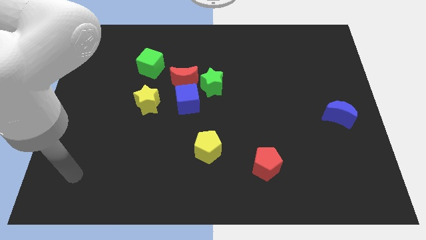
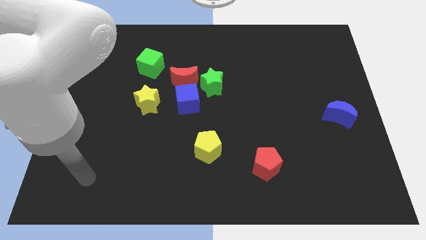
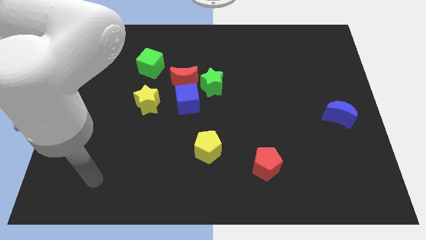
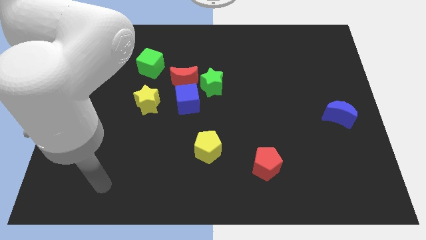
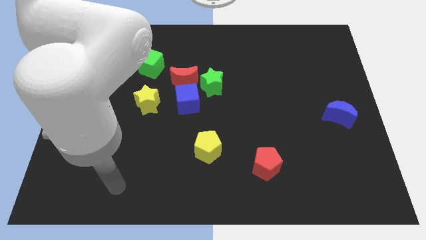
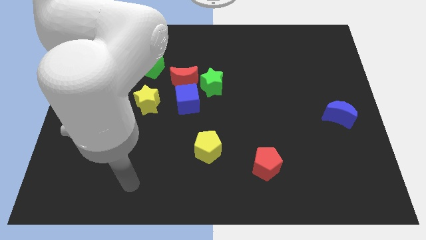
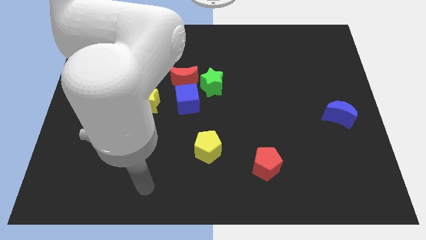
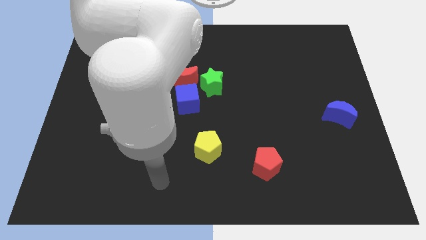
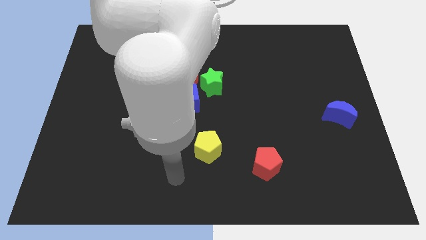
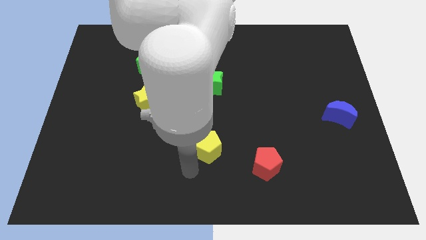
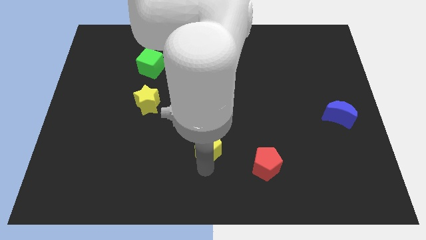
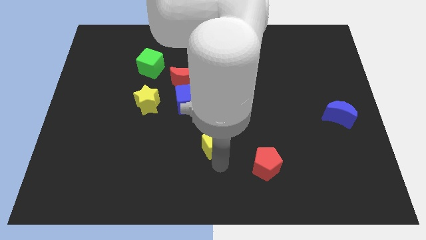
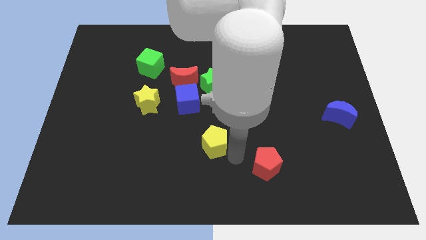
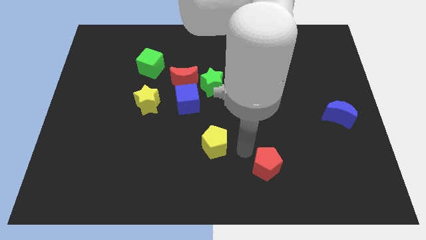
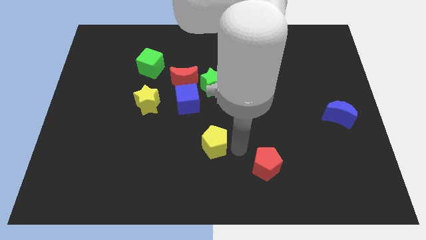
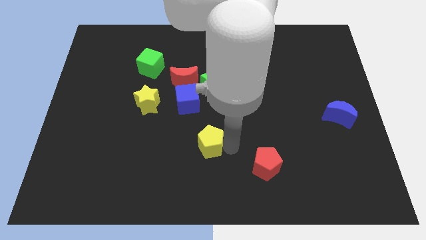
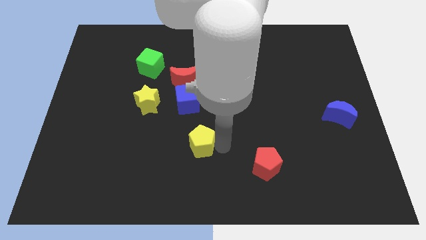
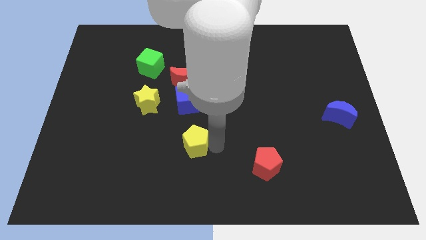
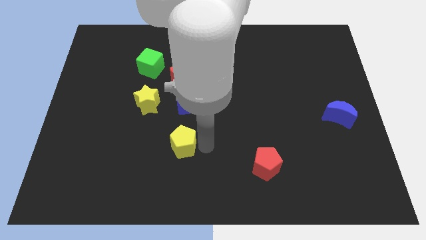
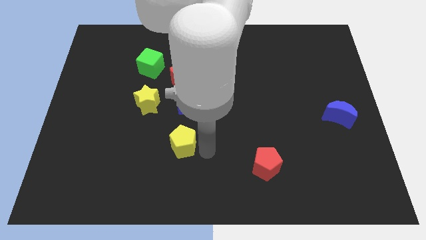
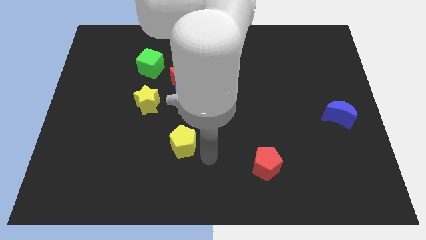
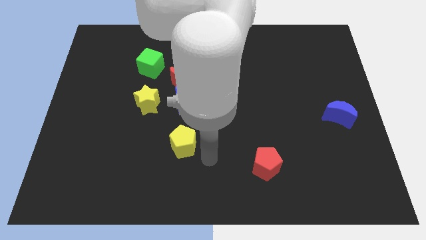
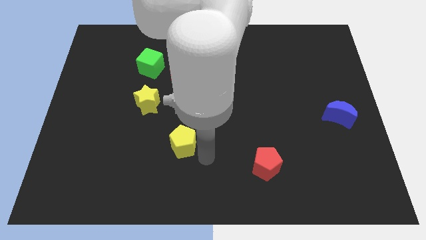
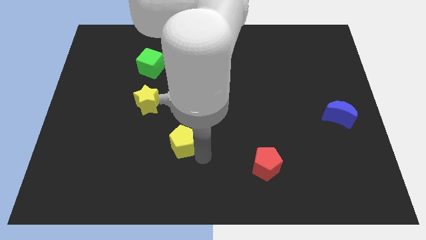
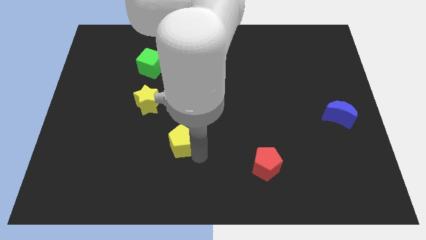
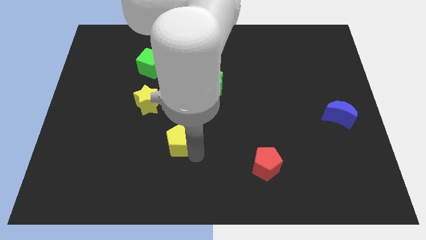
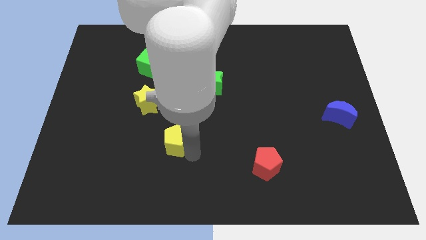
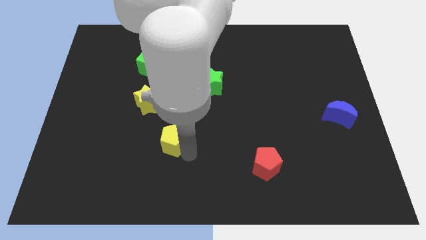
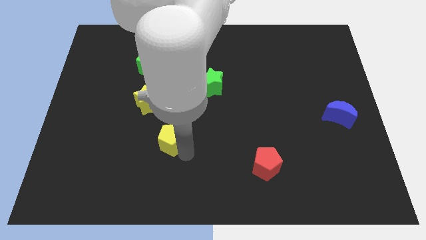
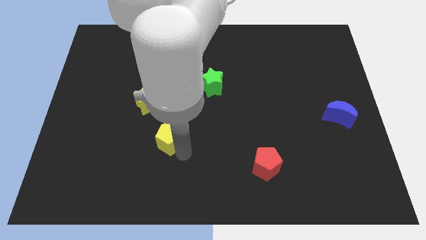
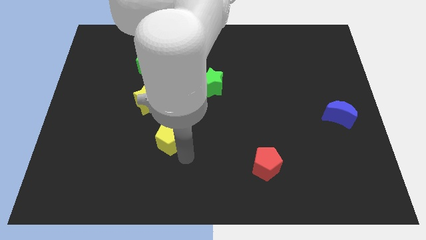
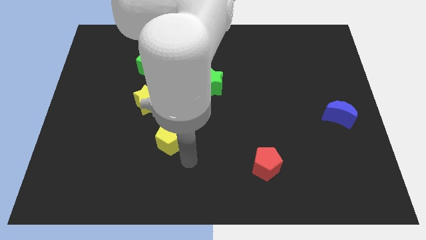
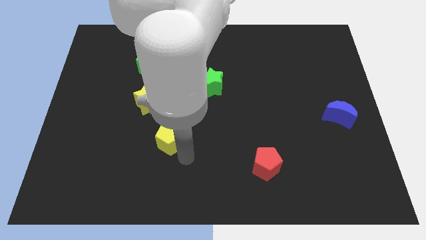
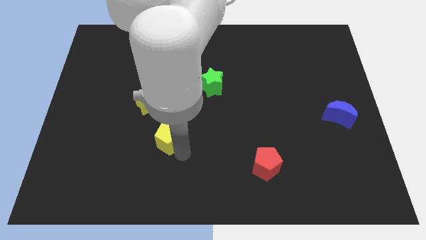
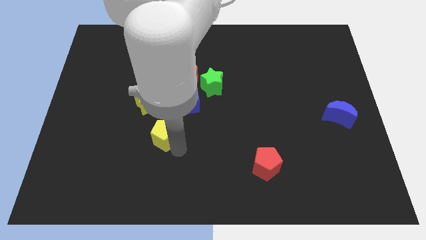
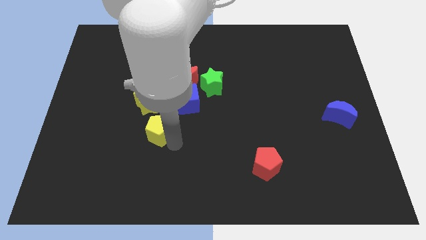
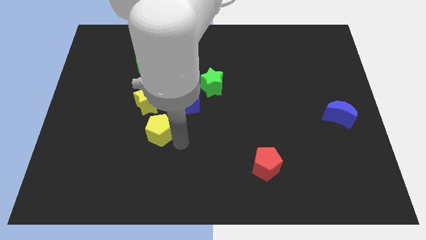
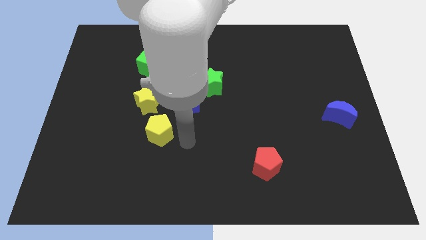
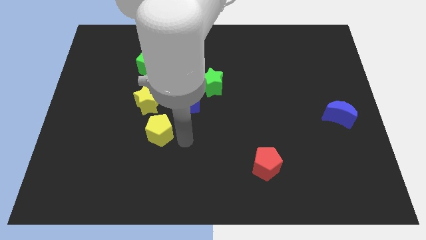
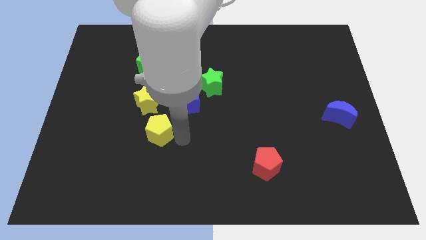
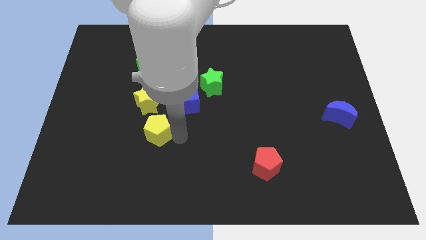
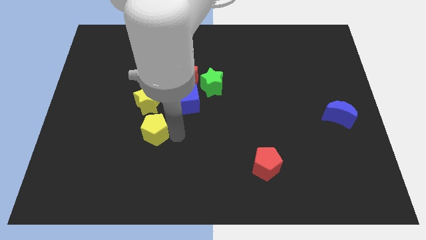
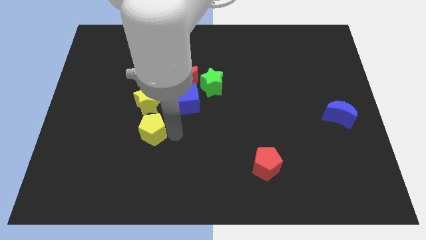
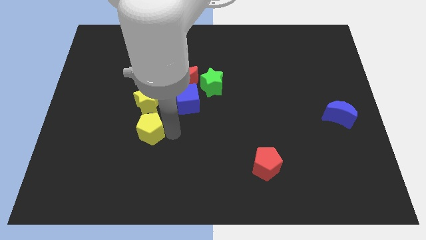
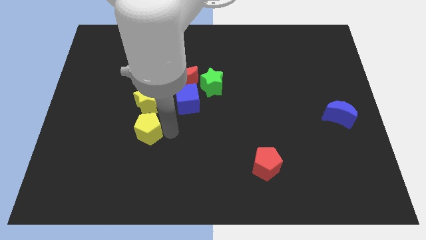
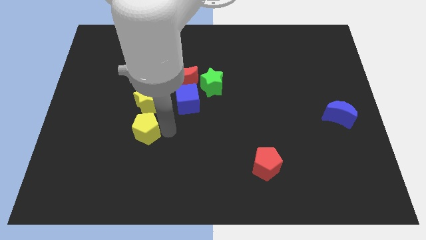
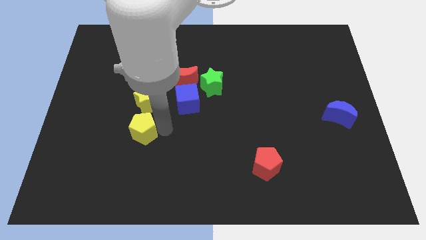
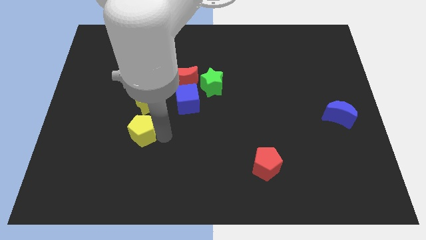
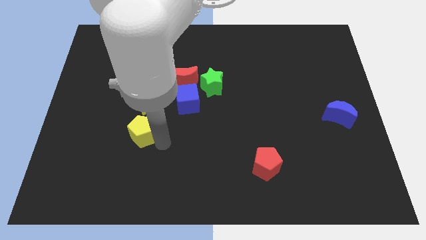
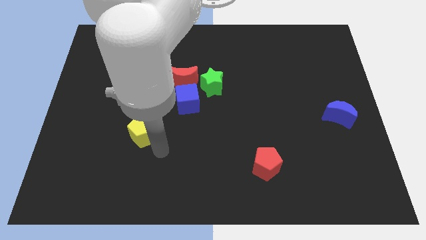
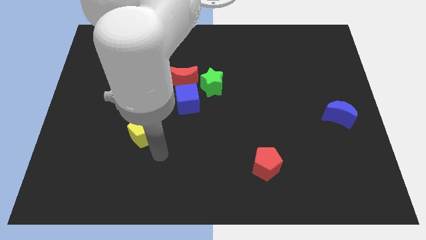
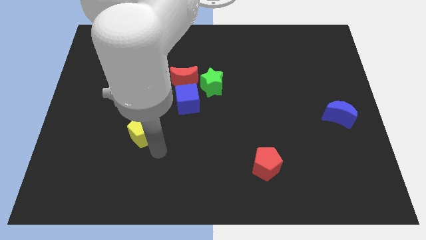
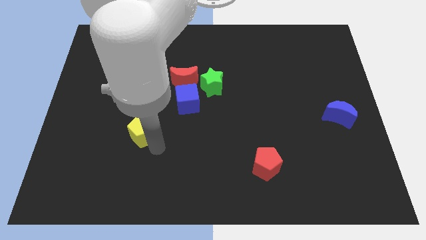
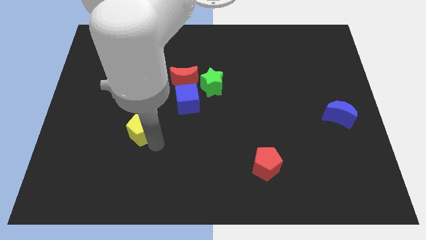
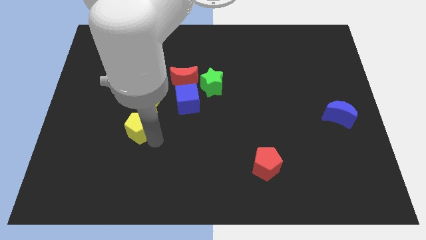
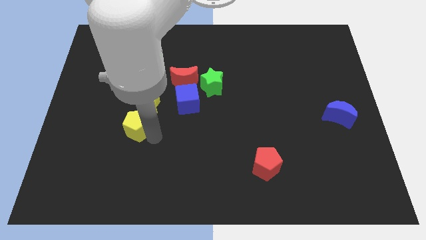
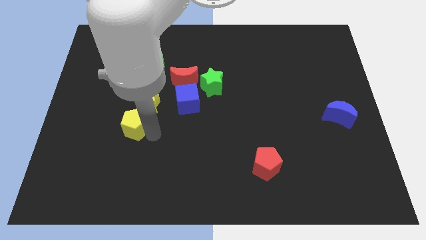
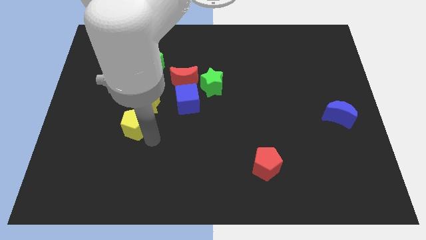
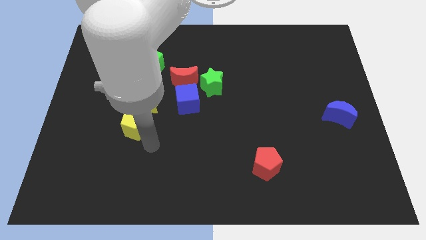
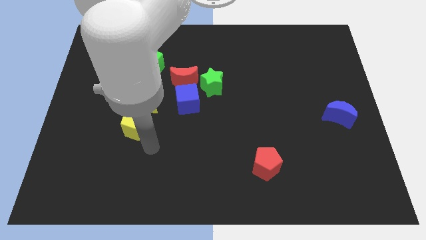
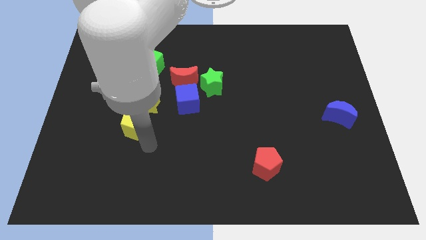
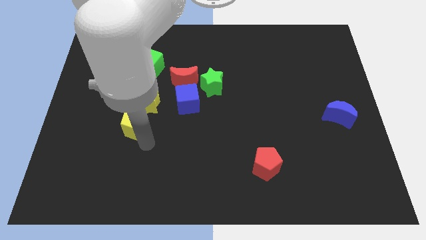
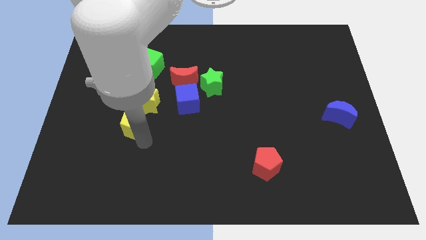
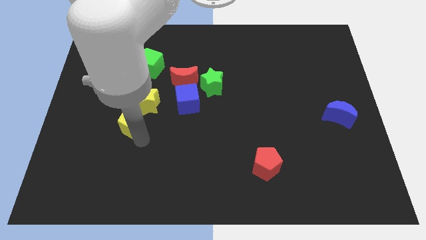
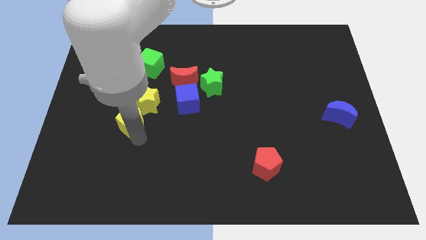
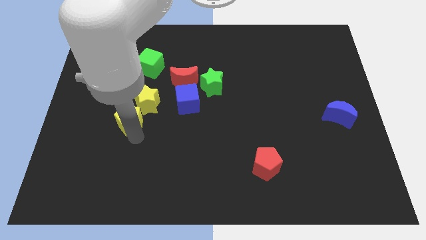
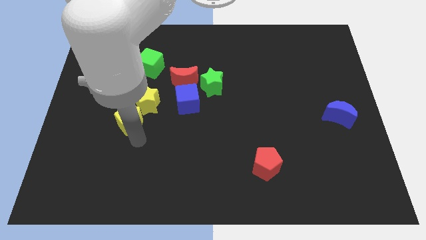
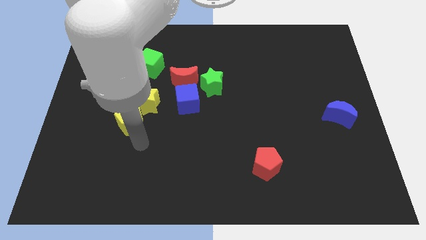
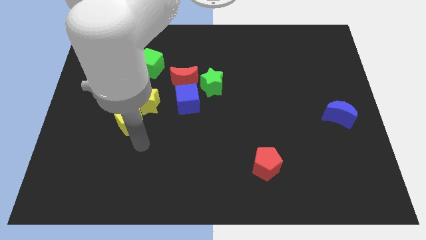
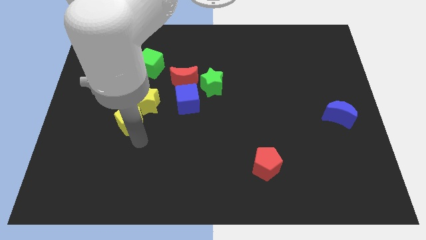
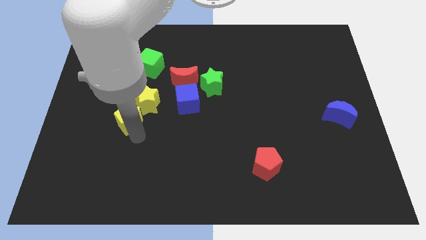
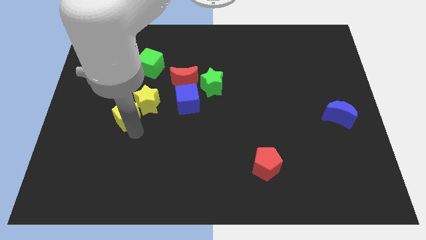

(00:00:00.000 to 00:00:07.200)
put the yellow pentagon to the left side of the yellow star
